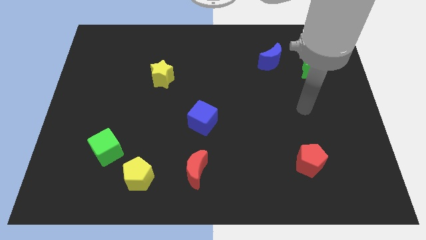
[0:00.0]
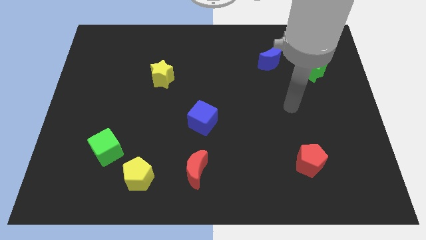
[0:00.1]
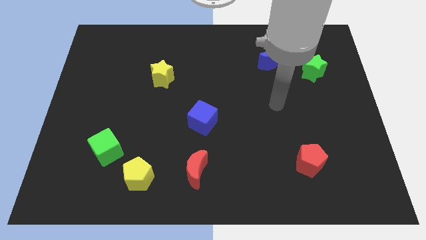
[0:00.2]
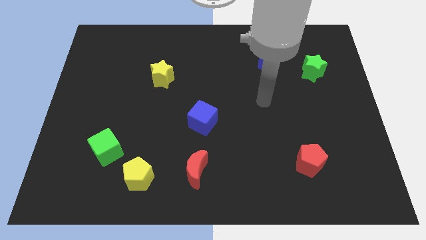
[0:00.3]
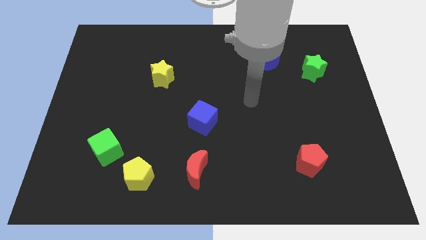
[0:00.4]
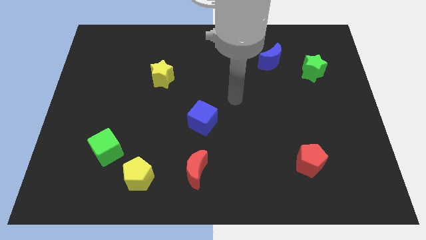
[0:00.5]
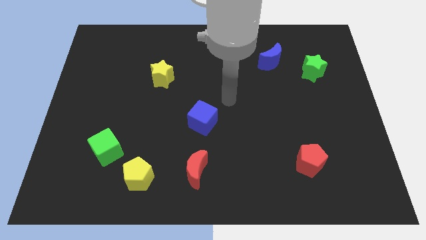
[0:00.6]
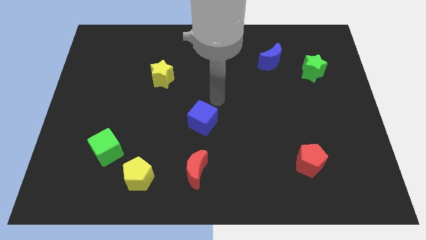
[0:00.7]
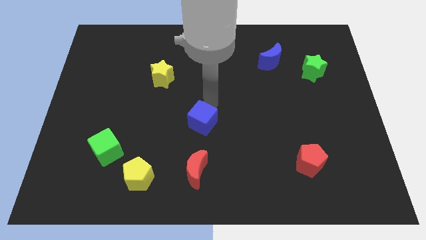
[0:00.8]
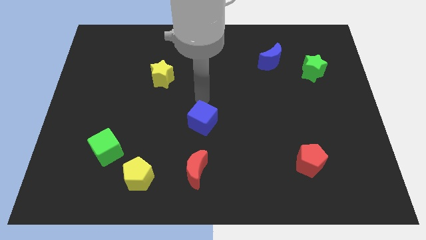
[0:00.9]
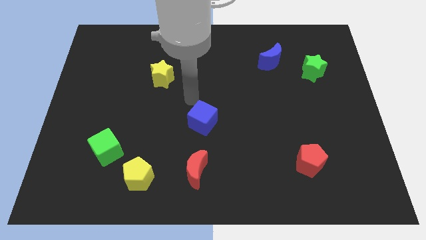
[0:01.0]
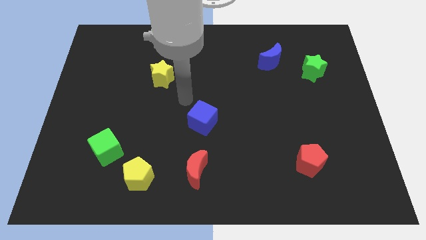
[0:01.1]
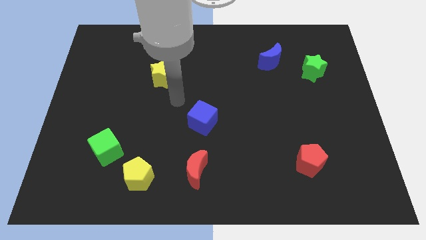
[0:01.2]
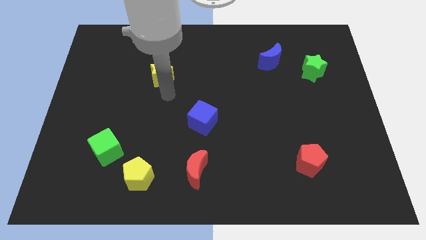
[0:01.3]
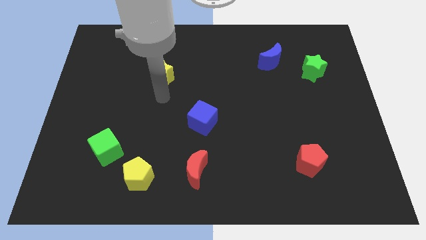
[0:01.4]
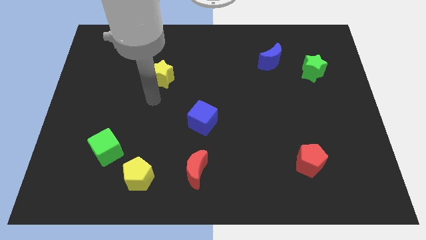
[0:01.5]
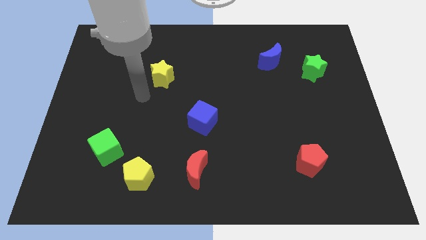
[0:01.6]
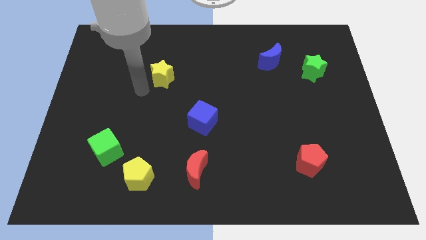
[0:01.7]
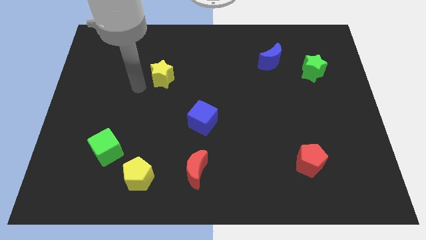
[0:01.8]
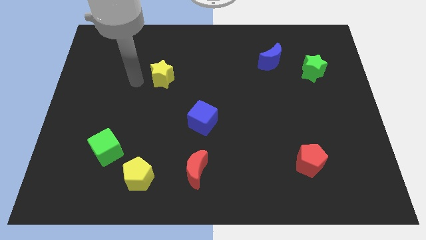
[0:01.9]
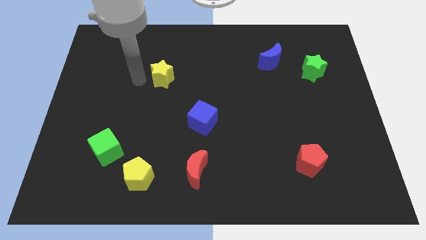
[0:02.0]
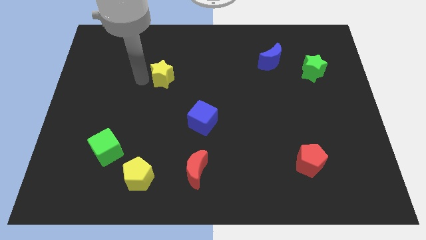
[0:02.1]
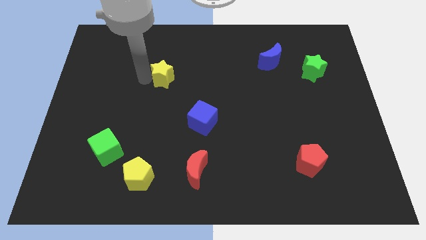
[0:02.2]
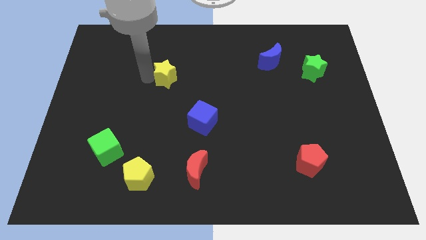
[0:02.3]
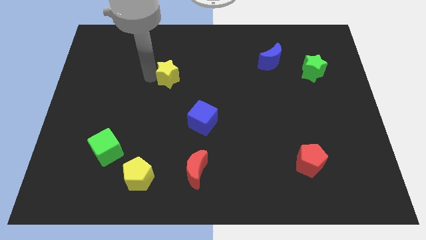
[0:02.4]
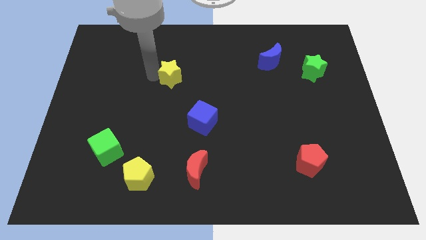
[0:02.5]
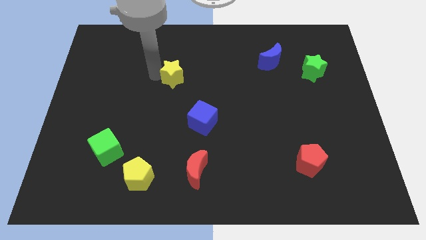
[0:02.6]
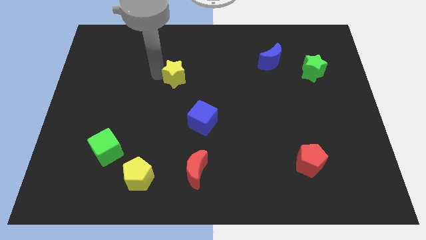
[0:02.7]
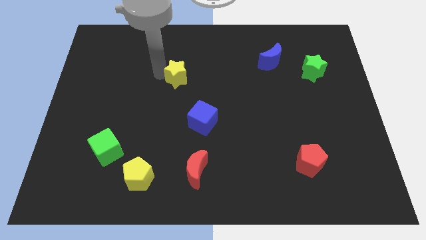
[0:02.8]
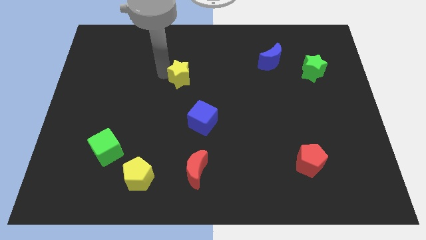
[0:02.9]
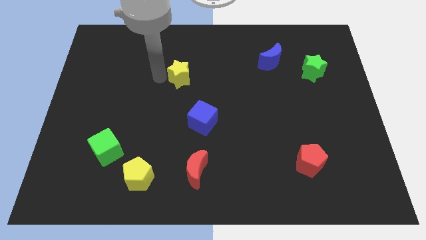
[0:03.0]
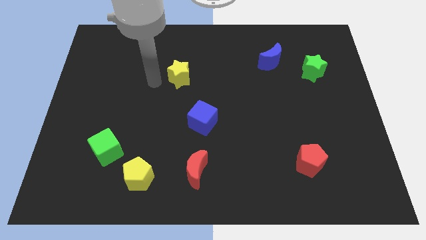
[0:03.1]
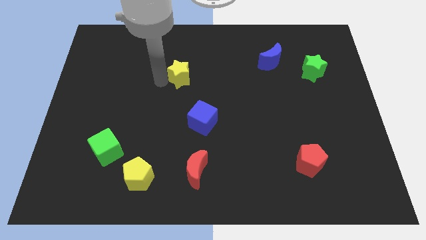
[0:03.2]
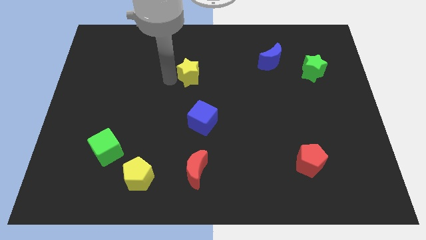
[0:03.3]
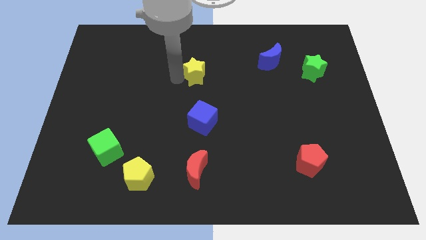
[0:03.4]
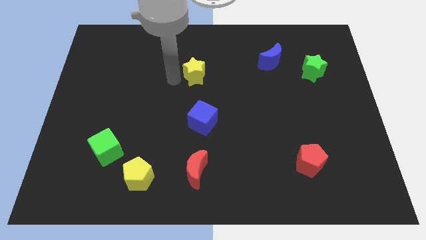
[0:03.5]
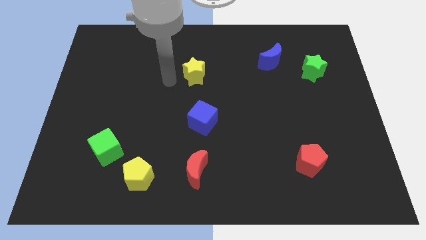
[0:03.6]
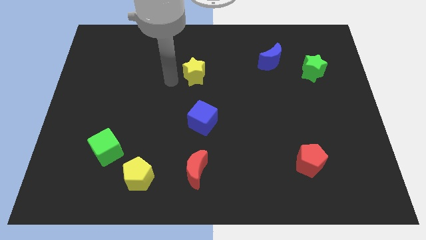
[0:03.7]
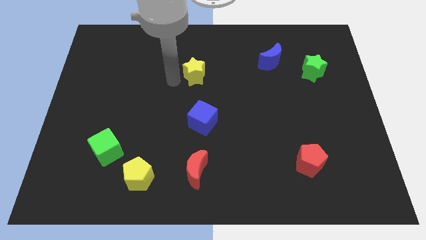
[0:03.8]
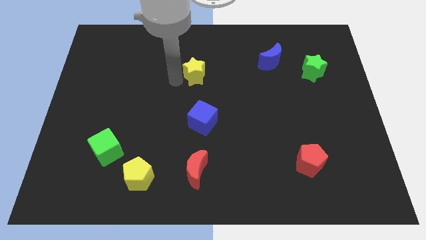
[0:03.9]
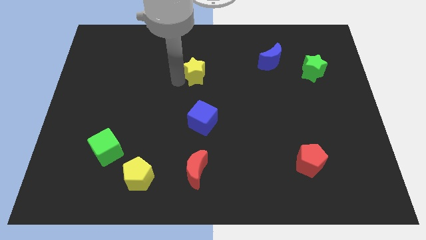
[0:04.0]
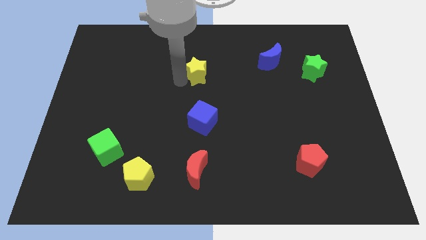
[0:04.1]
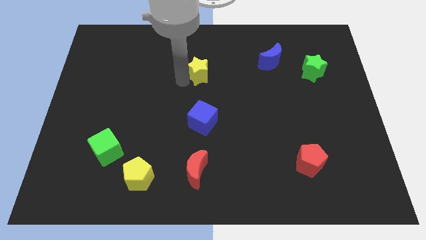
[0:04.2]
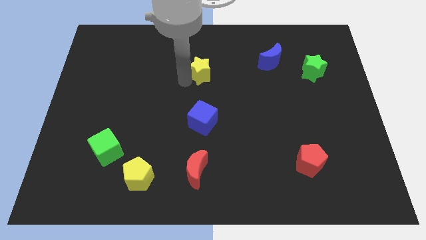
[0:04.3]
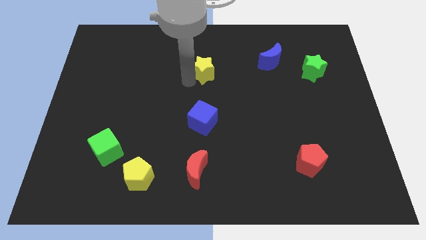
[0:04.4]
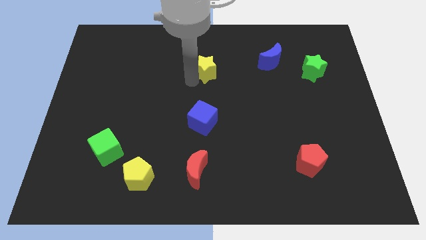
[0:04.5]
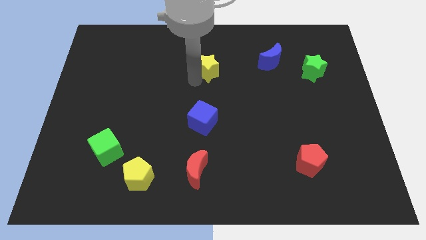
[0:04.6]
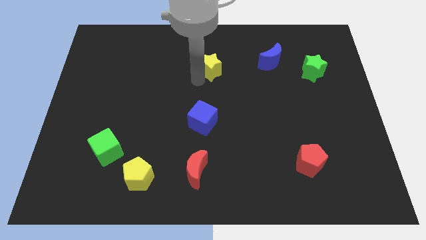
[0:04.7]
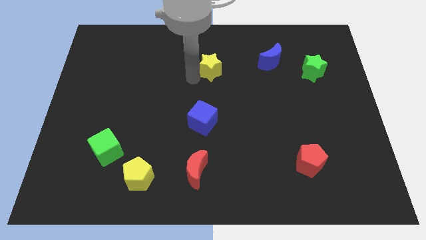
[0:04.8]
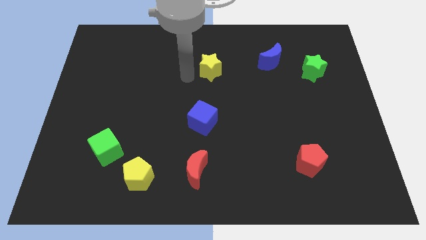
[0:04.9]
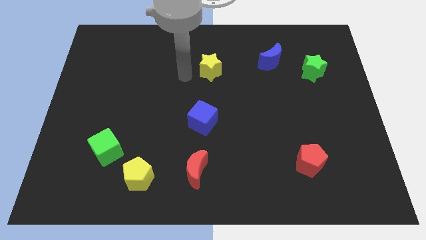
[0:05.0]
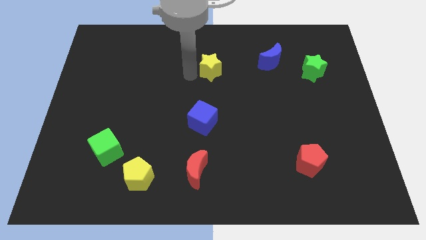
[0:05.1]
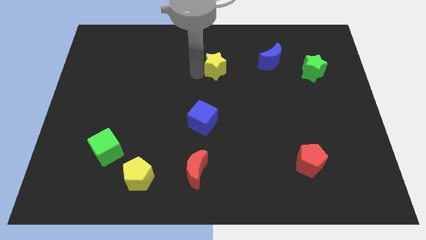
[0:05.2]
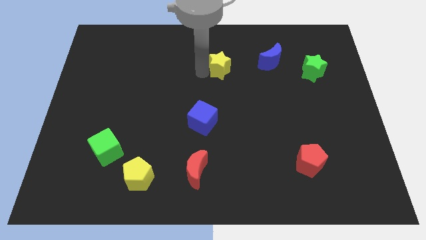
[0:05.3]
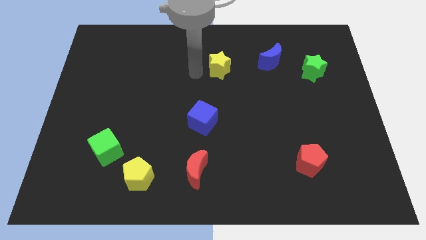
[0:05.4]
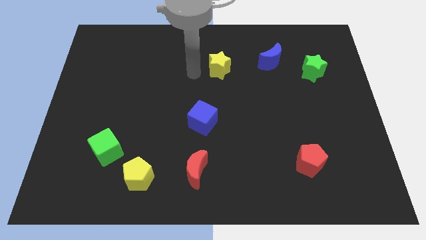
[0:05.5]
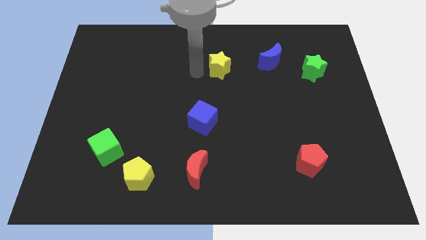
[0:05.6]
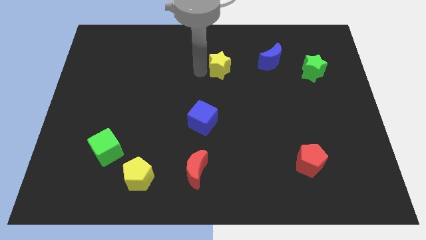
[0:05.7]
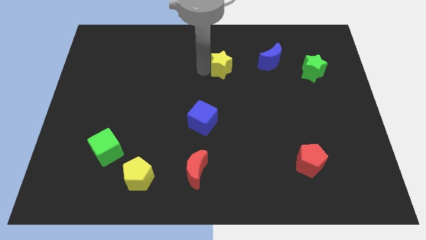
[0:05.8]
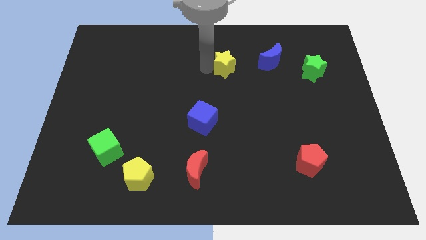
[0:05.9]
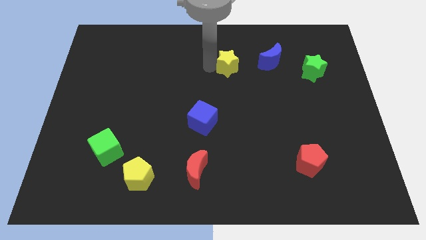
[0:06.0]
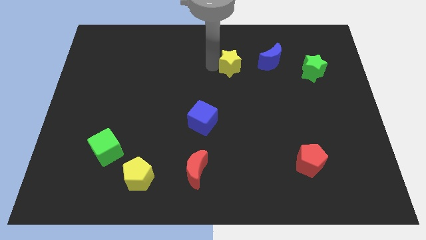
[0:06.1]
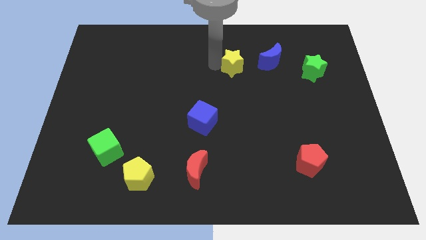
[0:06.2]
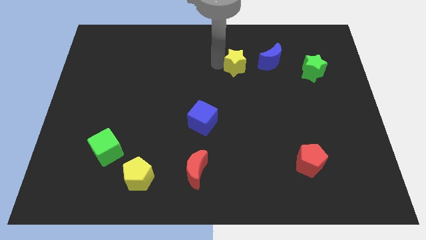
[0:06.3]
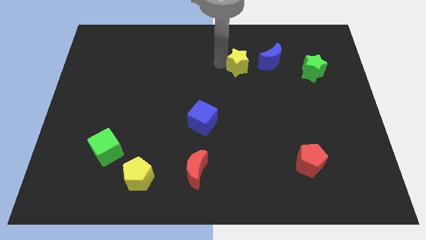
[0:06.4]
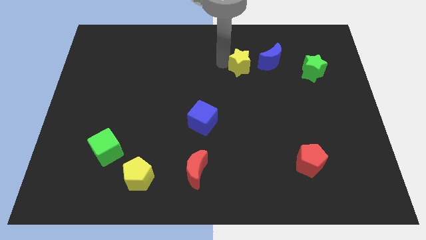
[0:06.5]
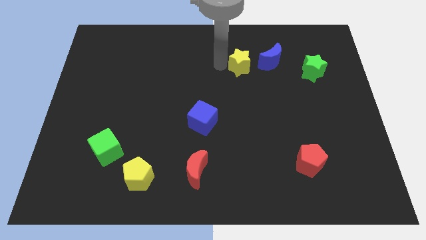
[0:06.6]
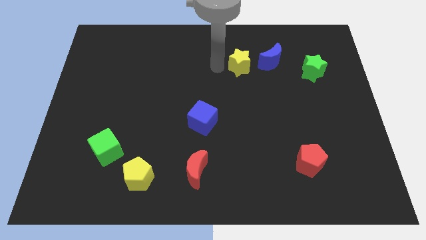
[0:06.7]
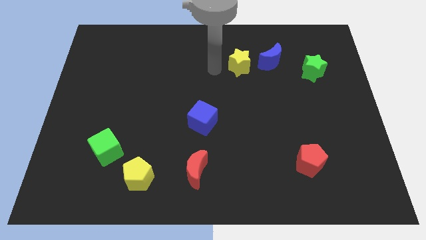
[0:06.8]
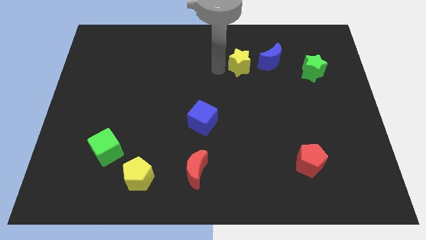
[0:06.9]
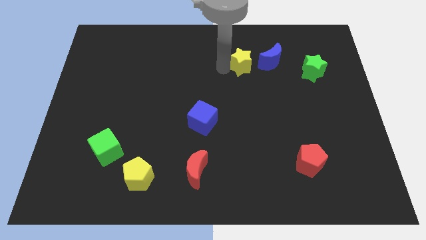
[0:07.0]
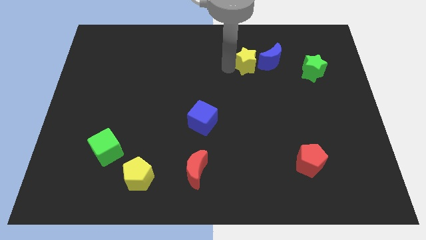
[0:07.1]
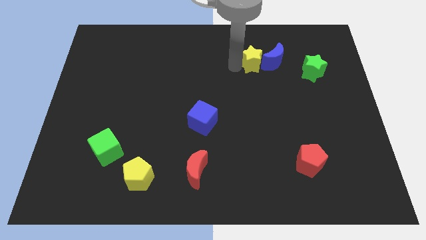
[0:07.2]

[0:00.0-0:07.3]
push the yellow star to the blue moon
